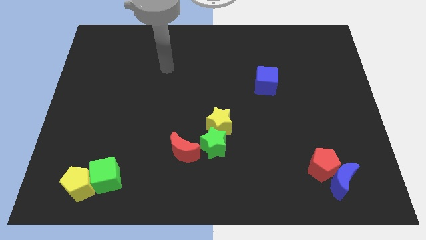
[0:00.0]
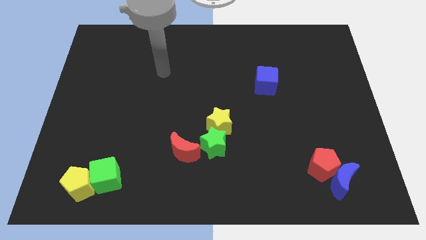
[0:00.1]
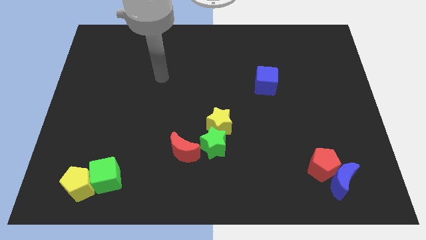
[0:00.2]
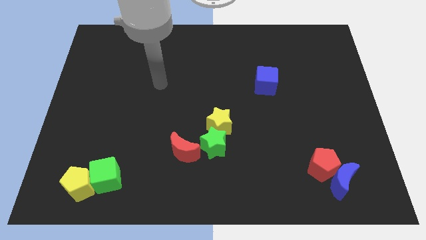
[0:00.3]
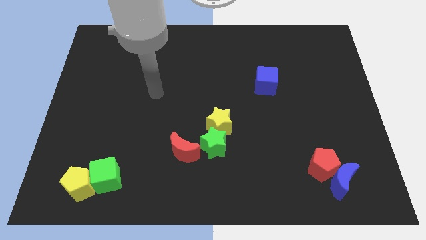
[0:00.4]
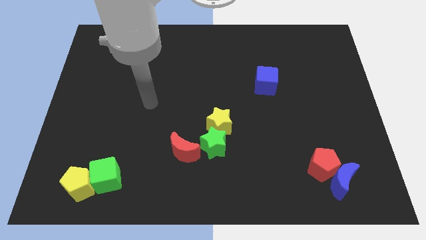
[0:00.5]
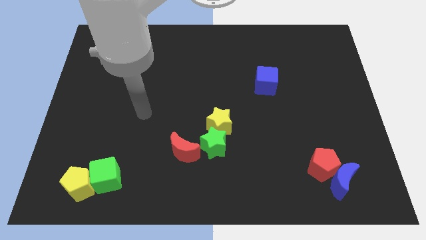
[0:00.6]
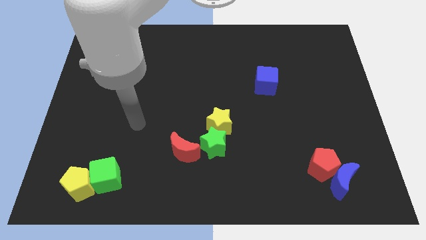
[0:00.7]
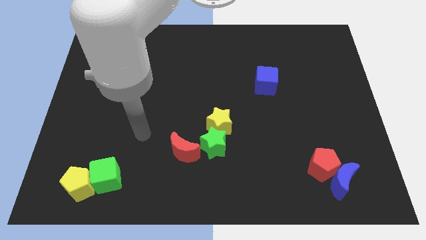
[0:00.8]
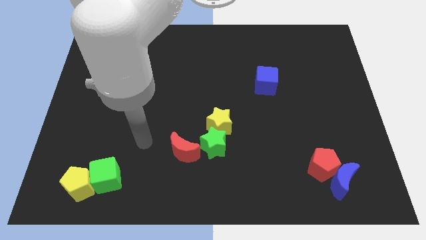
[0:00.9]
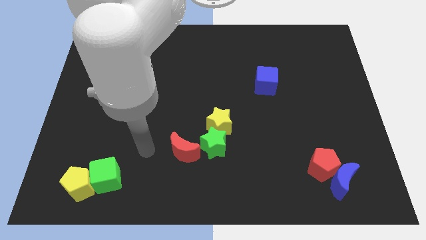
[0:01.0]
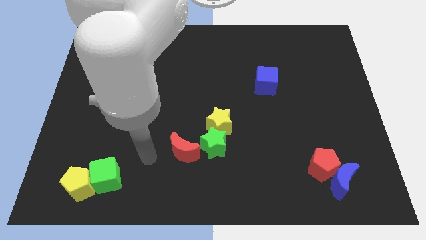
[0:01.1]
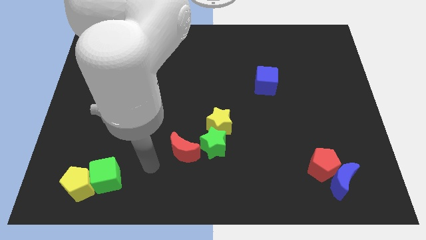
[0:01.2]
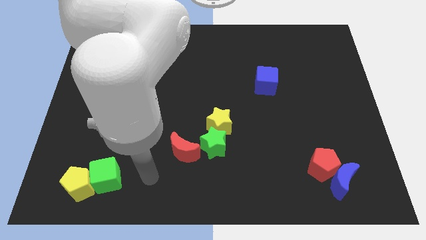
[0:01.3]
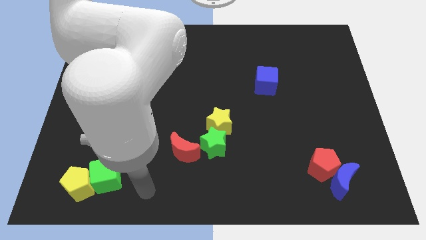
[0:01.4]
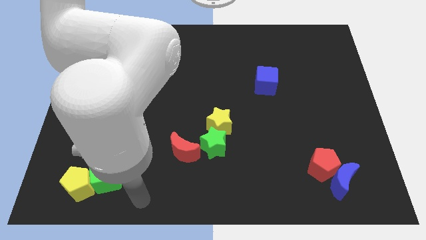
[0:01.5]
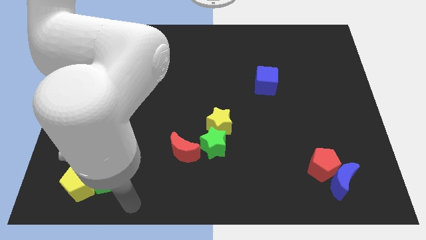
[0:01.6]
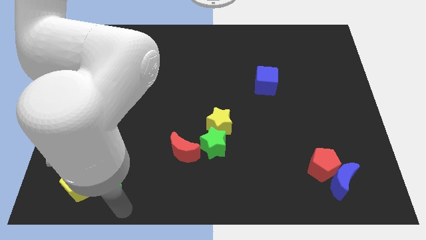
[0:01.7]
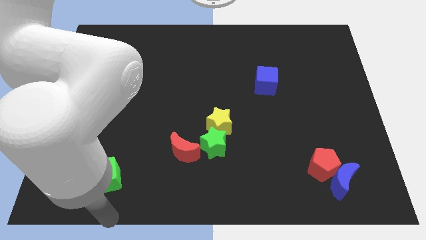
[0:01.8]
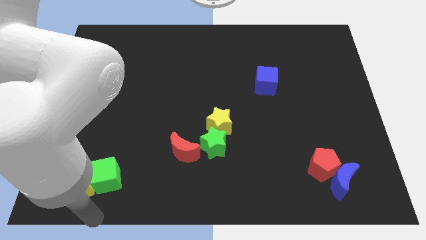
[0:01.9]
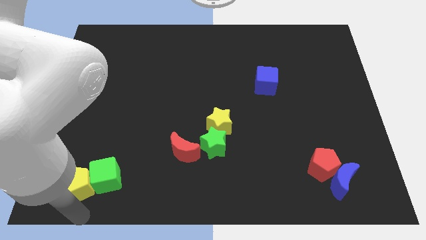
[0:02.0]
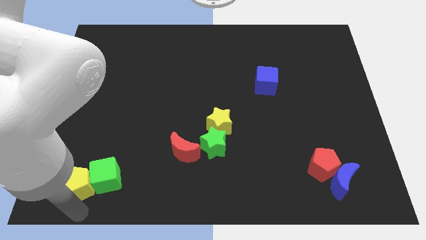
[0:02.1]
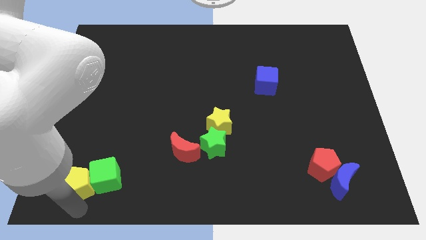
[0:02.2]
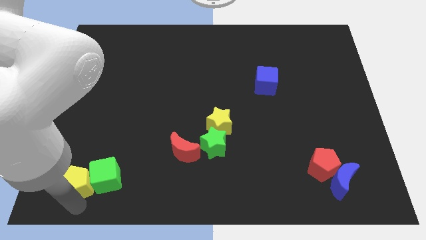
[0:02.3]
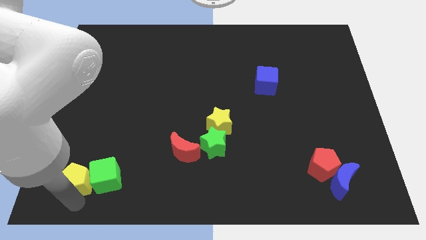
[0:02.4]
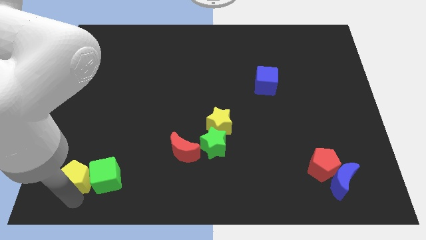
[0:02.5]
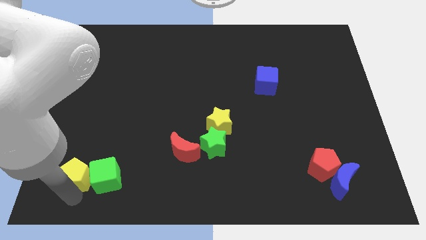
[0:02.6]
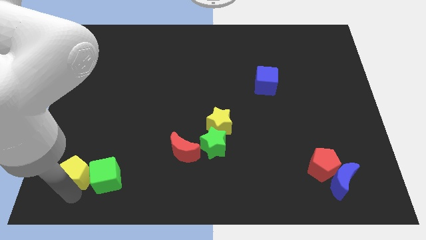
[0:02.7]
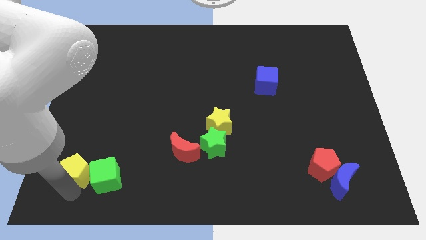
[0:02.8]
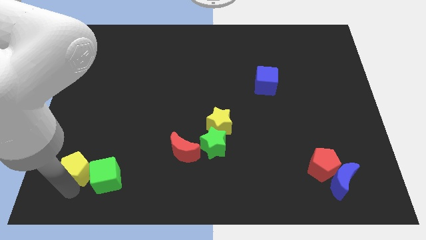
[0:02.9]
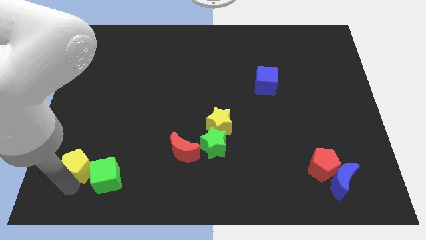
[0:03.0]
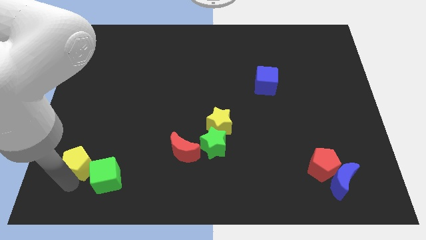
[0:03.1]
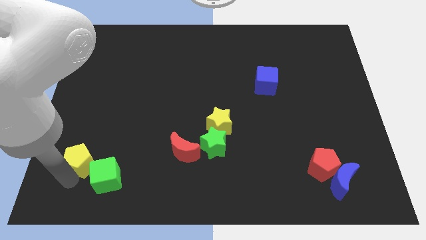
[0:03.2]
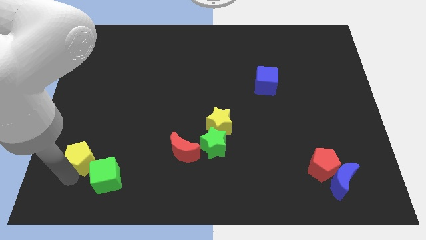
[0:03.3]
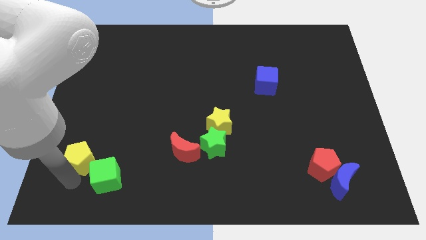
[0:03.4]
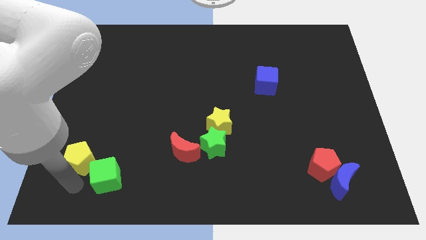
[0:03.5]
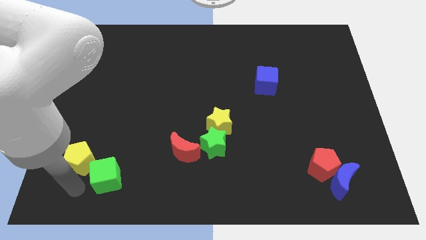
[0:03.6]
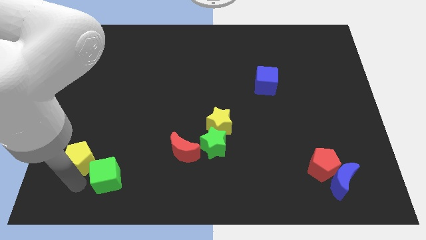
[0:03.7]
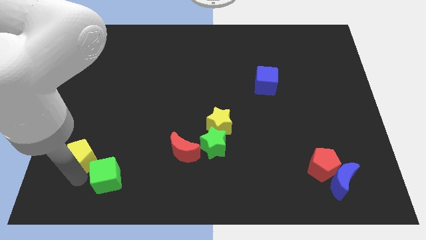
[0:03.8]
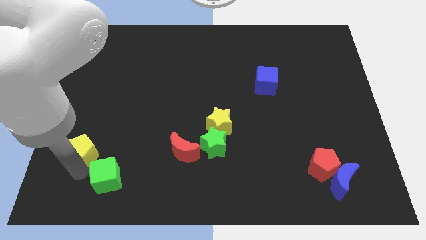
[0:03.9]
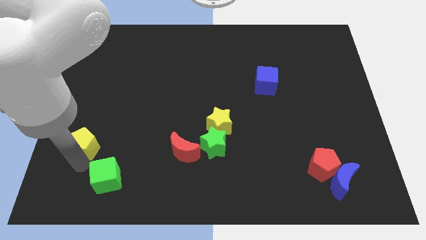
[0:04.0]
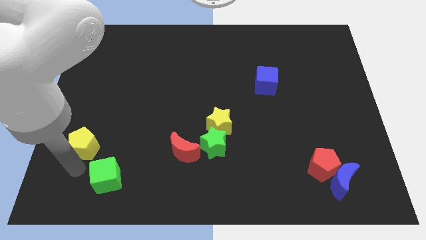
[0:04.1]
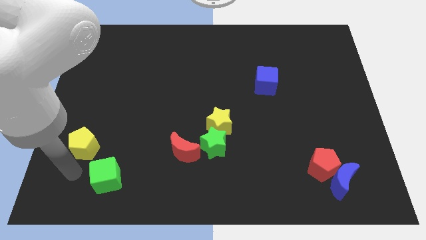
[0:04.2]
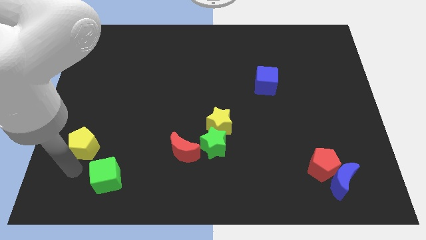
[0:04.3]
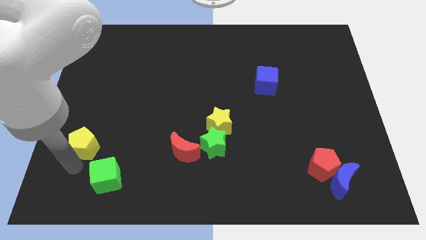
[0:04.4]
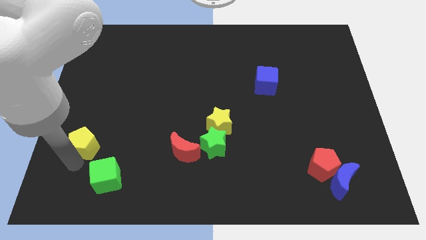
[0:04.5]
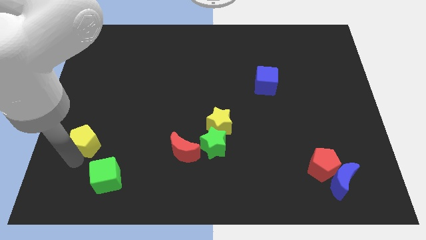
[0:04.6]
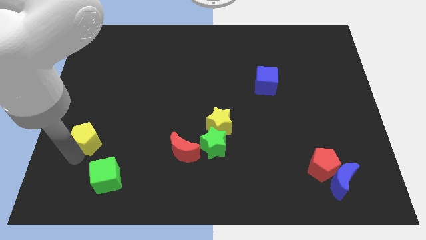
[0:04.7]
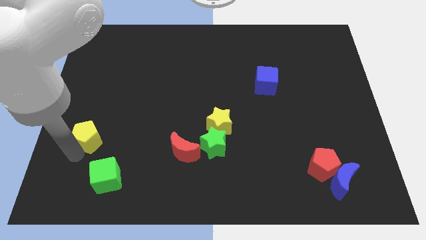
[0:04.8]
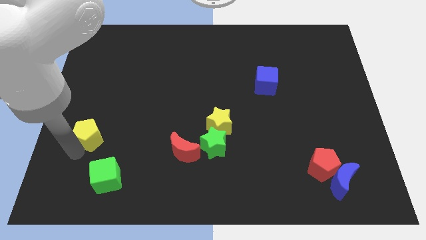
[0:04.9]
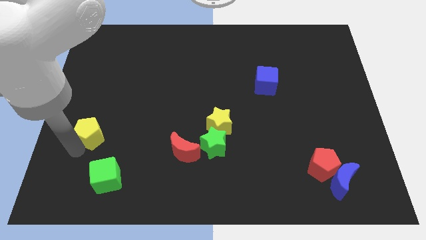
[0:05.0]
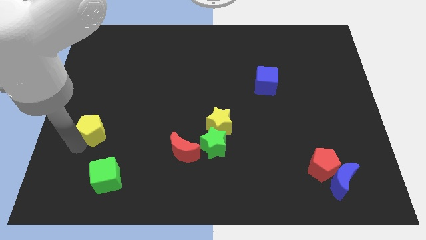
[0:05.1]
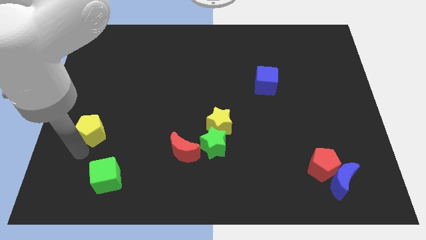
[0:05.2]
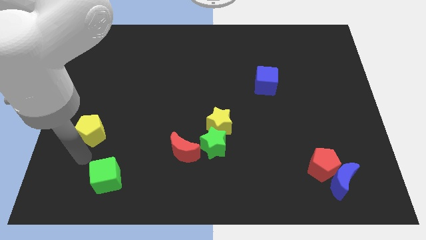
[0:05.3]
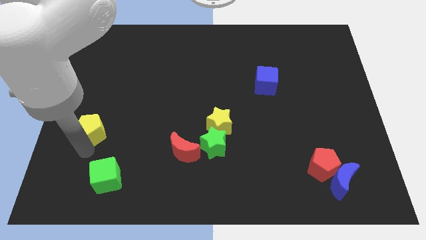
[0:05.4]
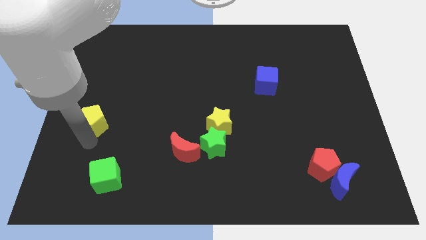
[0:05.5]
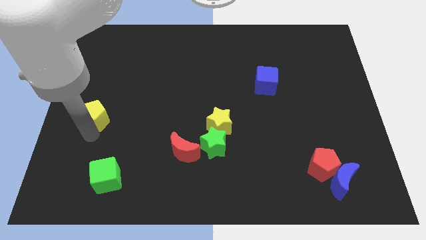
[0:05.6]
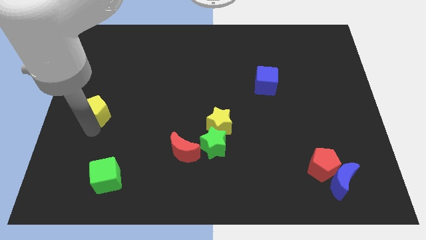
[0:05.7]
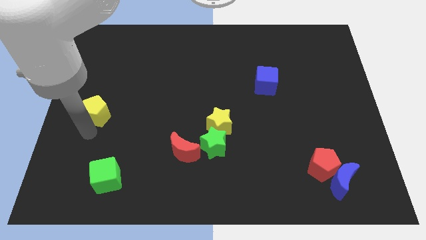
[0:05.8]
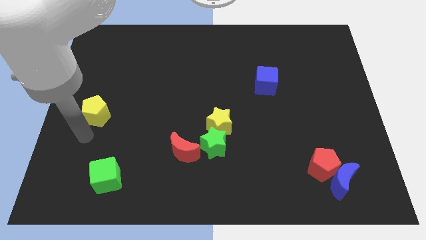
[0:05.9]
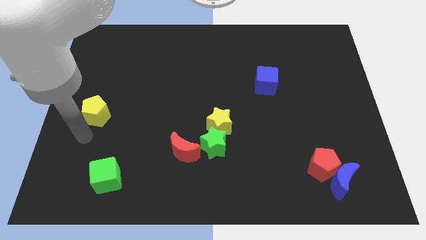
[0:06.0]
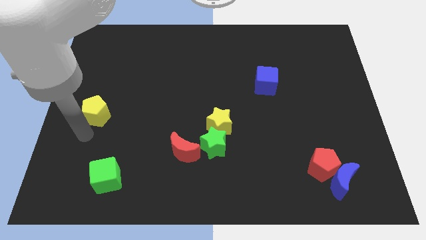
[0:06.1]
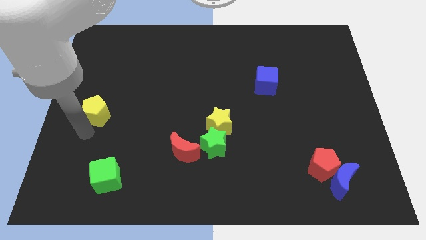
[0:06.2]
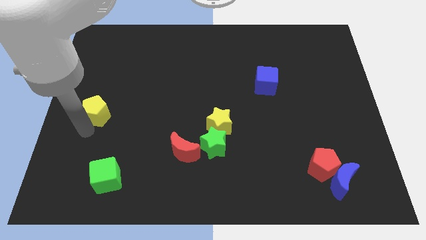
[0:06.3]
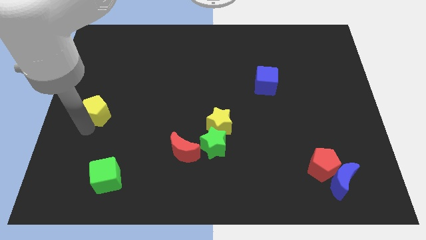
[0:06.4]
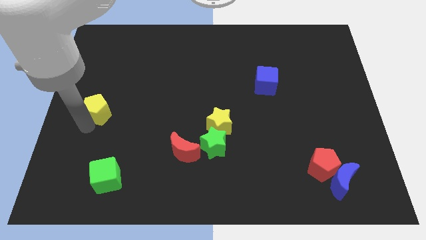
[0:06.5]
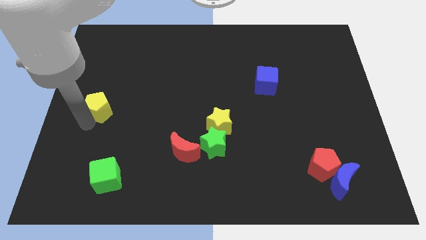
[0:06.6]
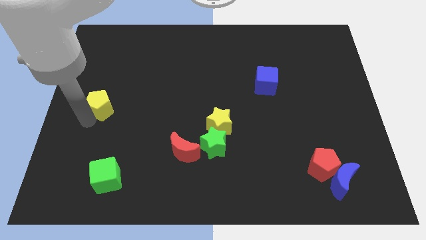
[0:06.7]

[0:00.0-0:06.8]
push the yellow pentagon upwards

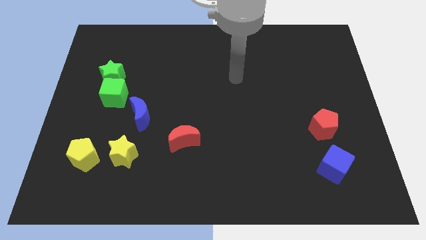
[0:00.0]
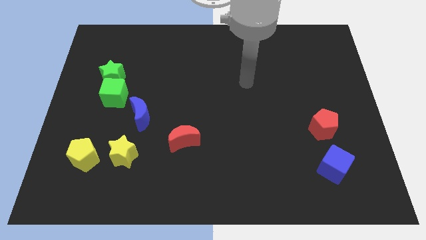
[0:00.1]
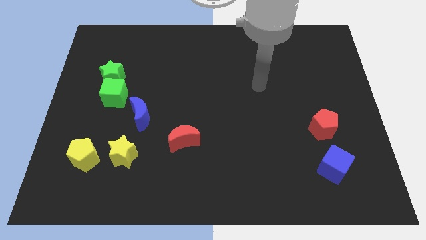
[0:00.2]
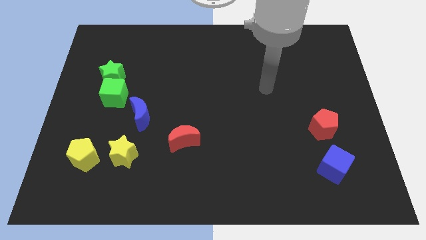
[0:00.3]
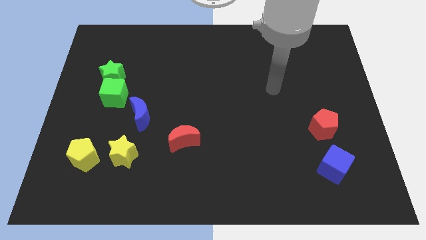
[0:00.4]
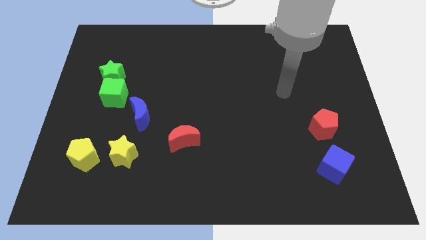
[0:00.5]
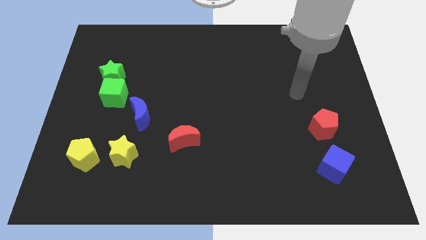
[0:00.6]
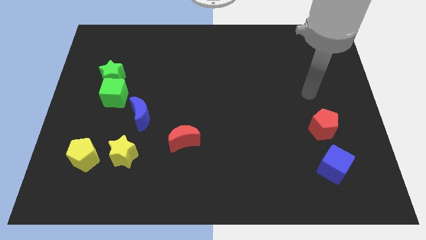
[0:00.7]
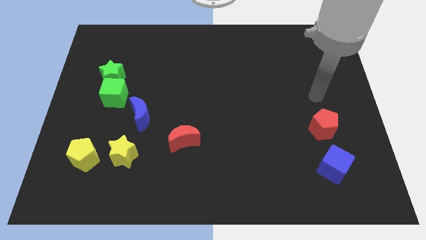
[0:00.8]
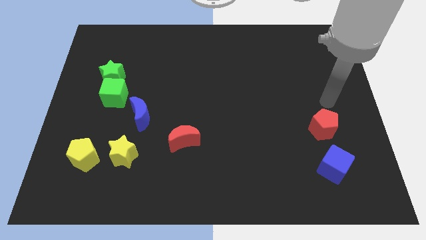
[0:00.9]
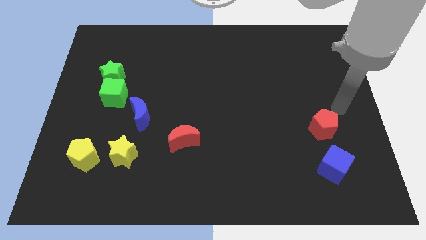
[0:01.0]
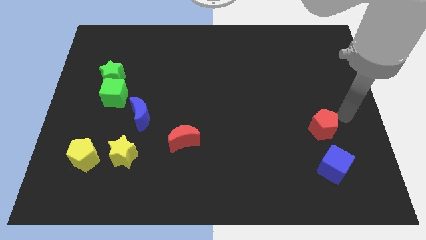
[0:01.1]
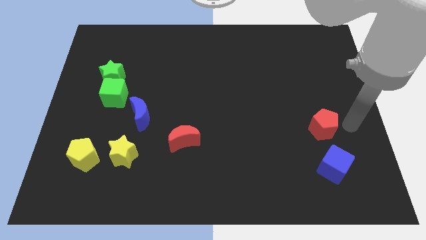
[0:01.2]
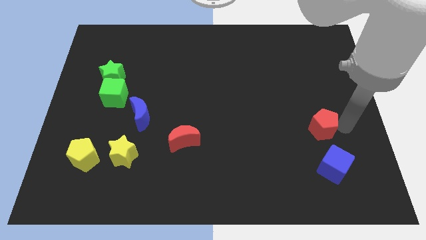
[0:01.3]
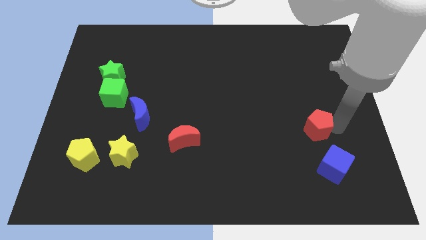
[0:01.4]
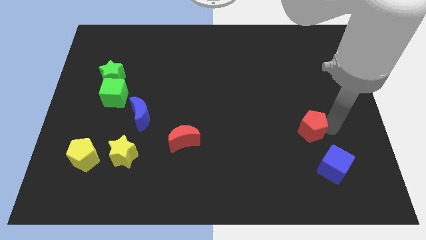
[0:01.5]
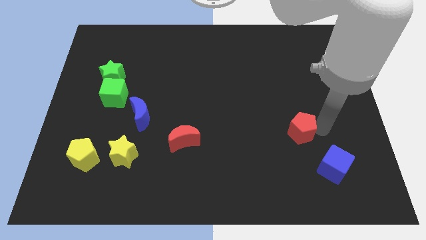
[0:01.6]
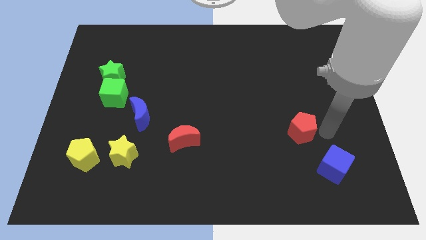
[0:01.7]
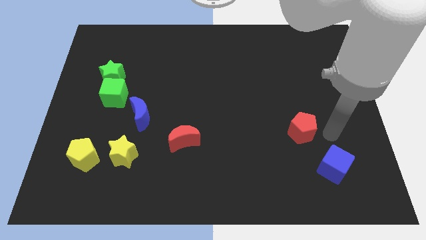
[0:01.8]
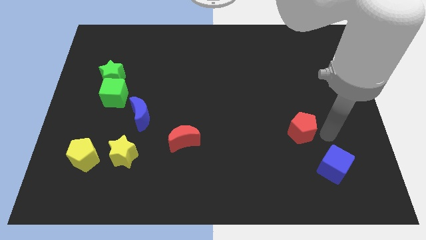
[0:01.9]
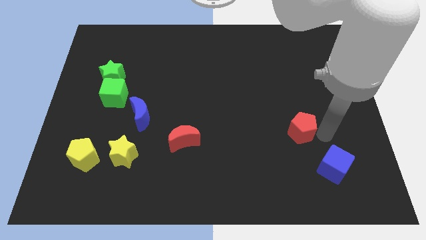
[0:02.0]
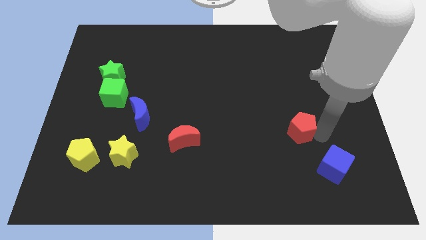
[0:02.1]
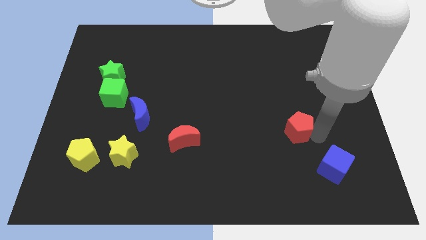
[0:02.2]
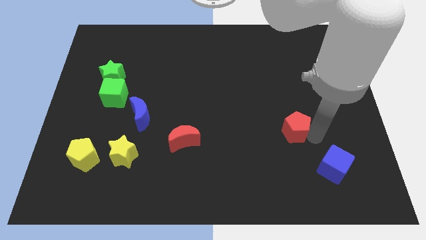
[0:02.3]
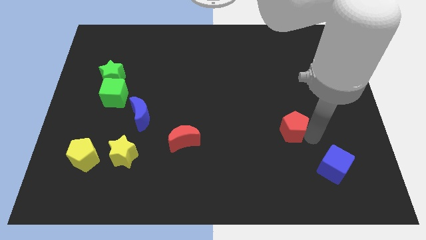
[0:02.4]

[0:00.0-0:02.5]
slide the red pentagon left a bit
